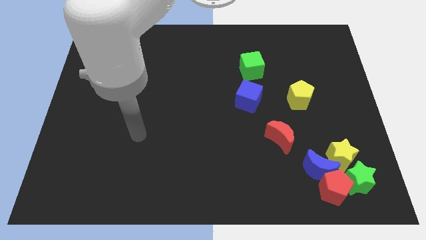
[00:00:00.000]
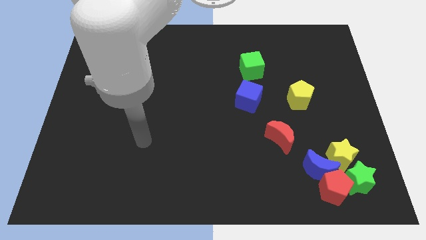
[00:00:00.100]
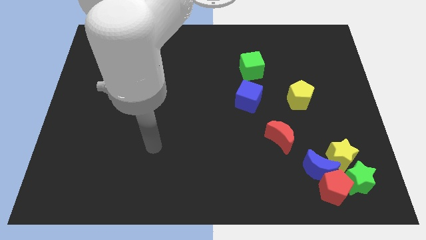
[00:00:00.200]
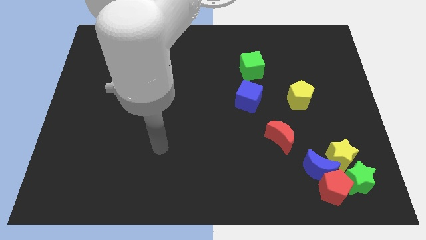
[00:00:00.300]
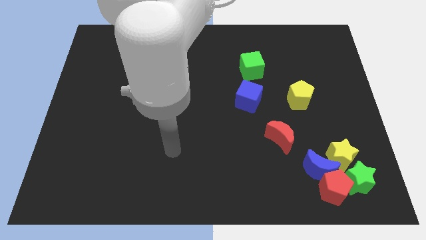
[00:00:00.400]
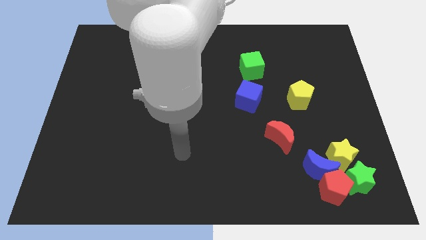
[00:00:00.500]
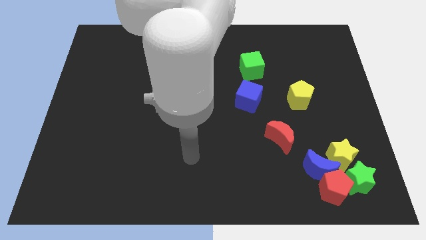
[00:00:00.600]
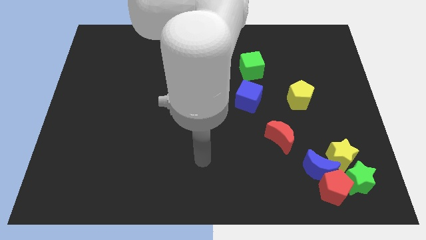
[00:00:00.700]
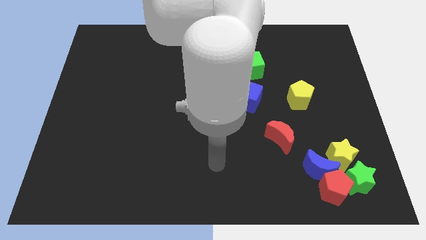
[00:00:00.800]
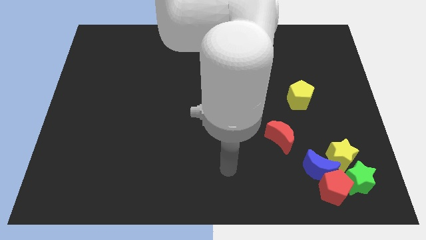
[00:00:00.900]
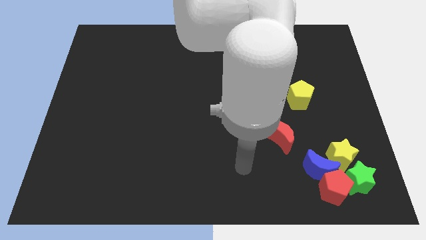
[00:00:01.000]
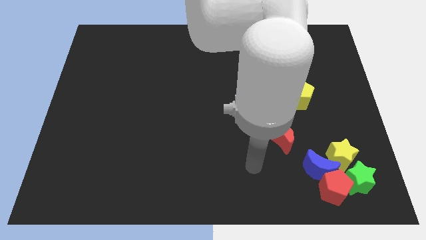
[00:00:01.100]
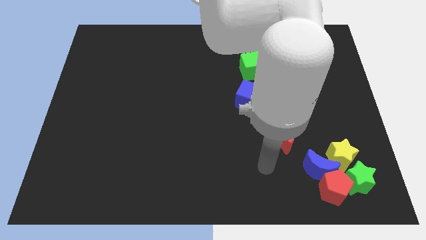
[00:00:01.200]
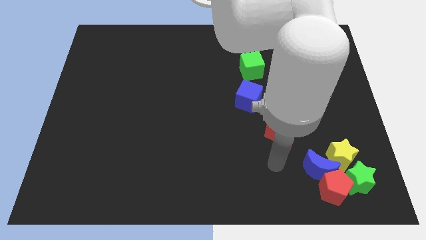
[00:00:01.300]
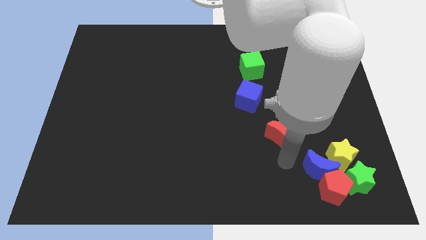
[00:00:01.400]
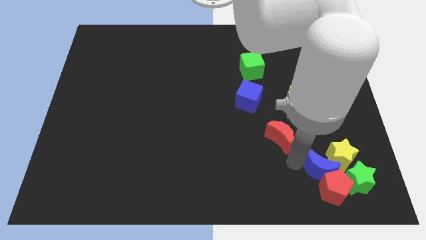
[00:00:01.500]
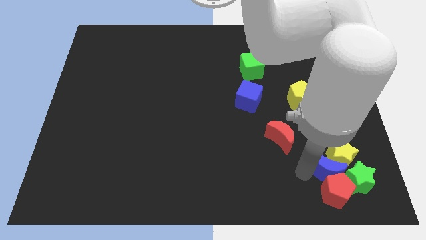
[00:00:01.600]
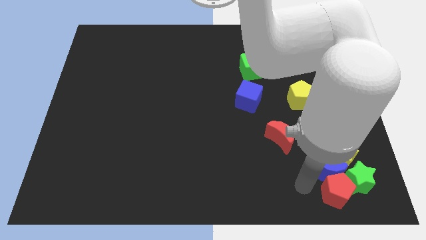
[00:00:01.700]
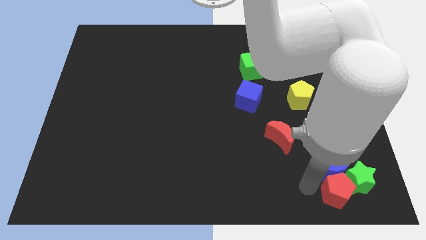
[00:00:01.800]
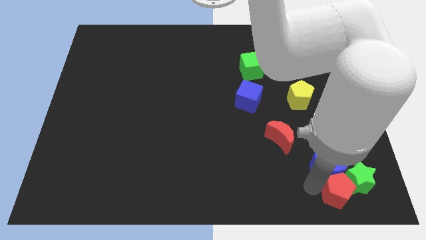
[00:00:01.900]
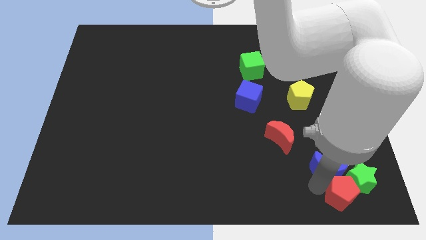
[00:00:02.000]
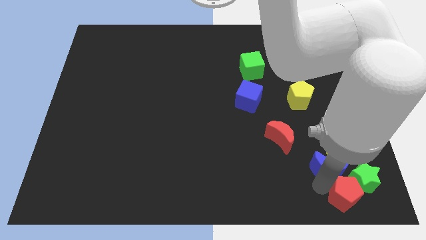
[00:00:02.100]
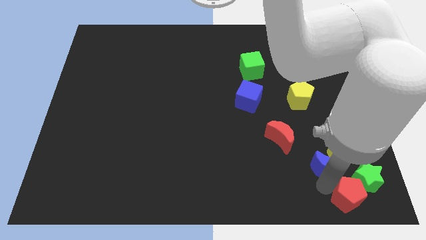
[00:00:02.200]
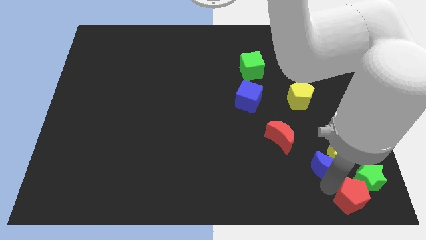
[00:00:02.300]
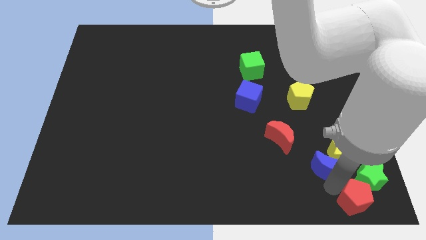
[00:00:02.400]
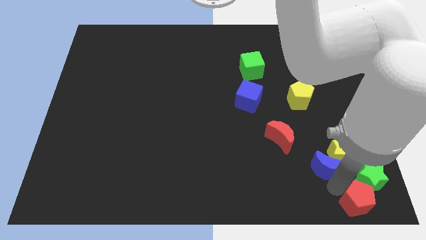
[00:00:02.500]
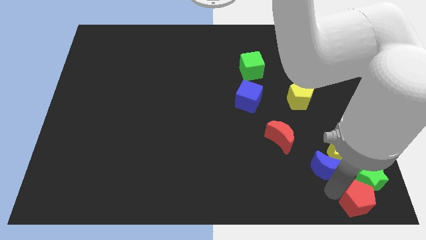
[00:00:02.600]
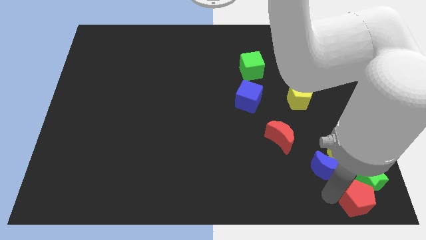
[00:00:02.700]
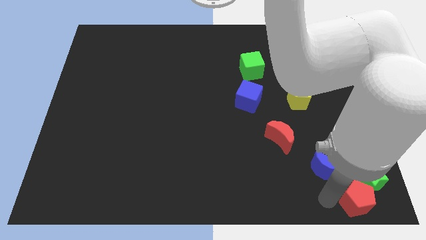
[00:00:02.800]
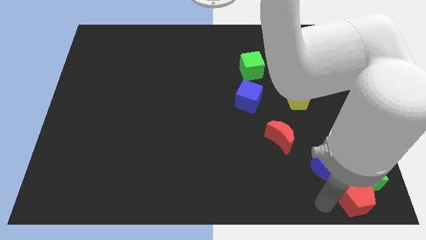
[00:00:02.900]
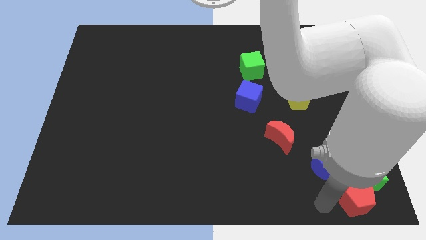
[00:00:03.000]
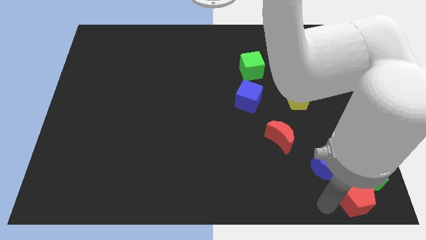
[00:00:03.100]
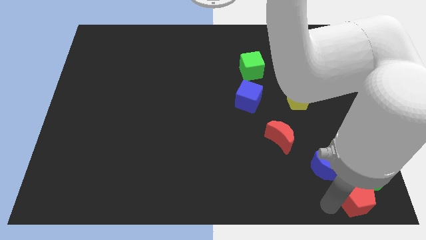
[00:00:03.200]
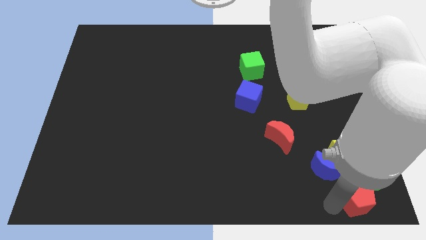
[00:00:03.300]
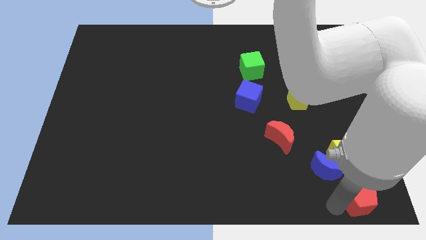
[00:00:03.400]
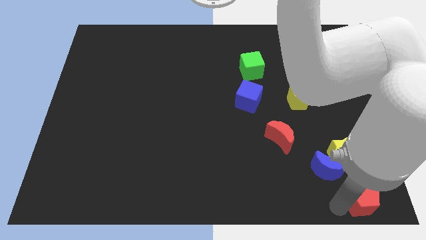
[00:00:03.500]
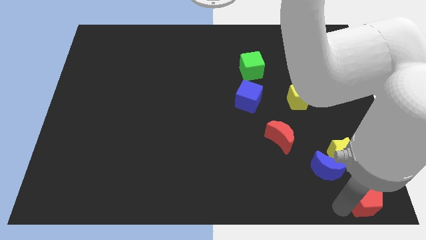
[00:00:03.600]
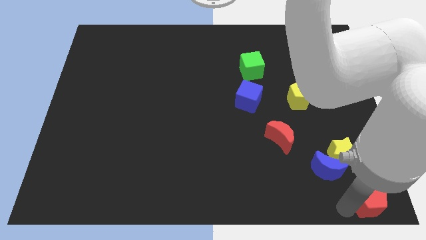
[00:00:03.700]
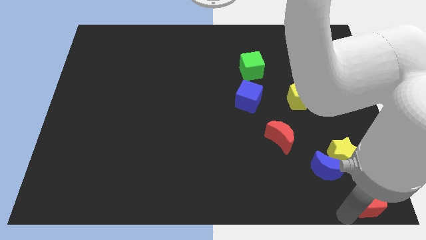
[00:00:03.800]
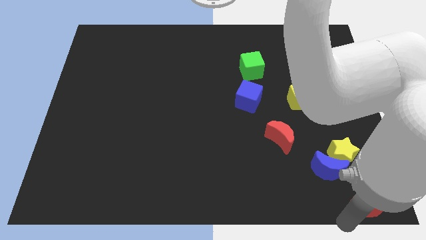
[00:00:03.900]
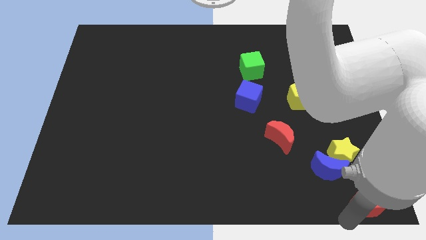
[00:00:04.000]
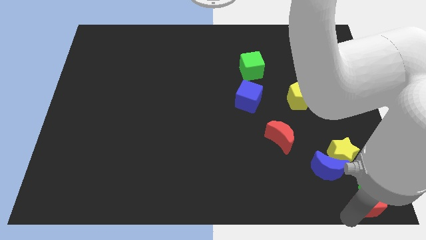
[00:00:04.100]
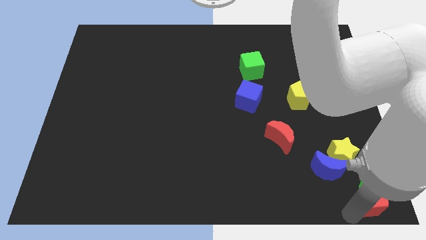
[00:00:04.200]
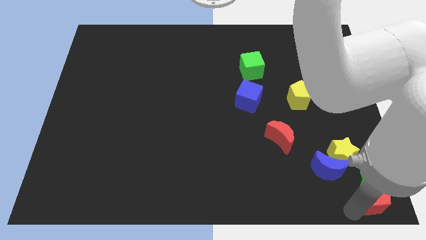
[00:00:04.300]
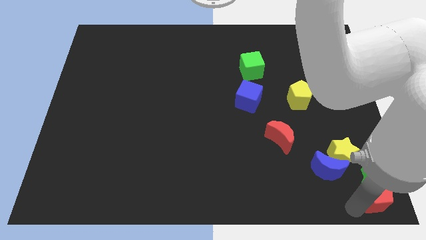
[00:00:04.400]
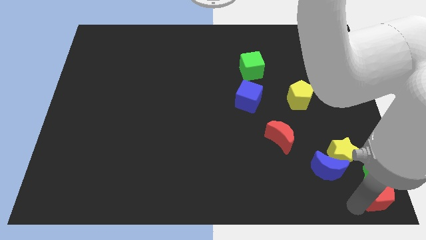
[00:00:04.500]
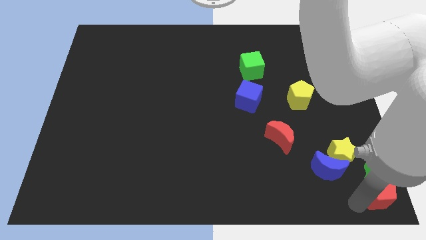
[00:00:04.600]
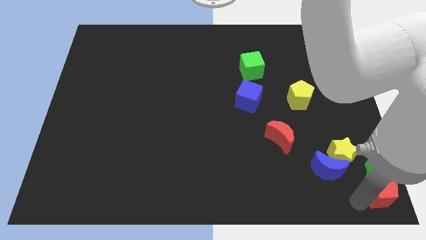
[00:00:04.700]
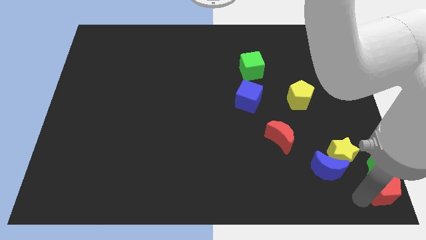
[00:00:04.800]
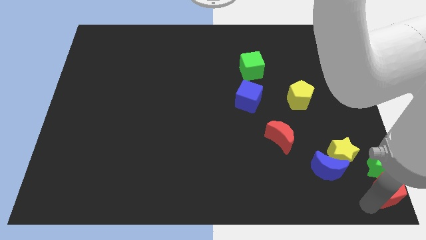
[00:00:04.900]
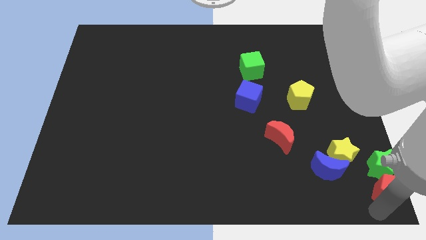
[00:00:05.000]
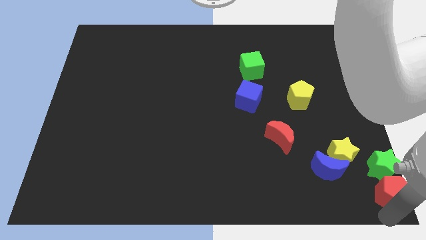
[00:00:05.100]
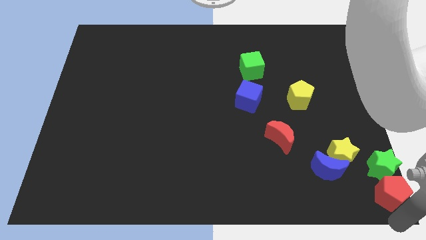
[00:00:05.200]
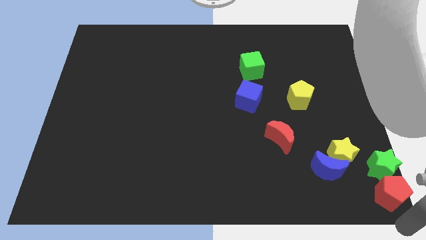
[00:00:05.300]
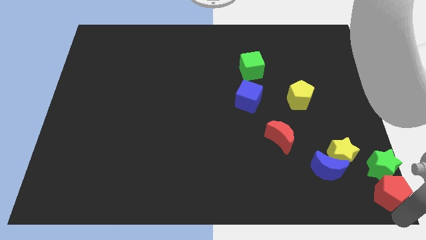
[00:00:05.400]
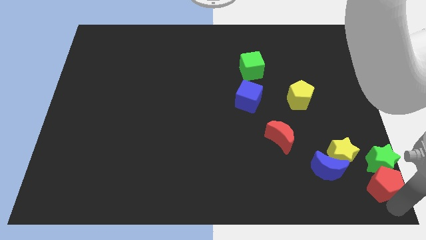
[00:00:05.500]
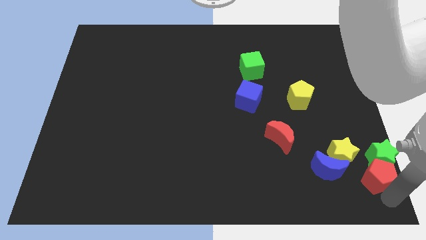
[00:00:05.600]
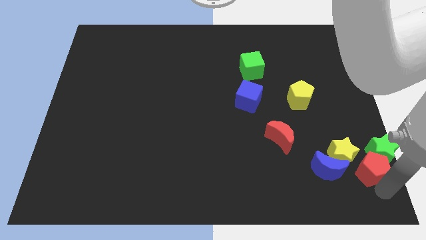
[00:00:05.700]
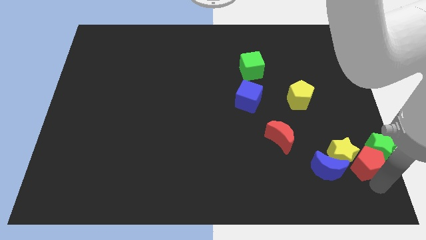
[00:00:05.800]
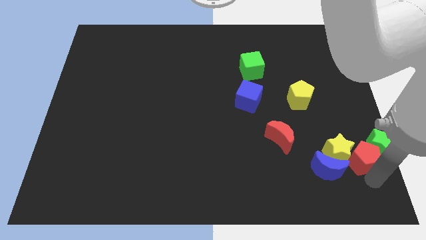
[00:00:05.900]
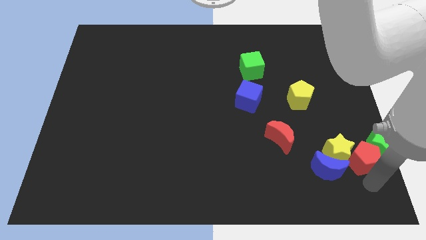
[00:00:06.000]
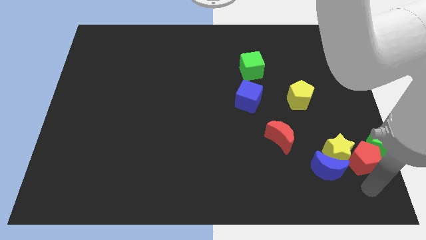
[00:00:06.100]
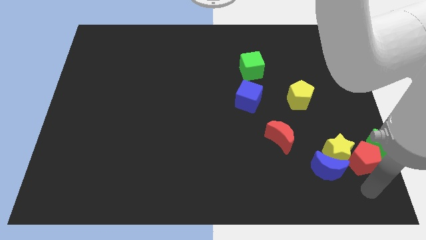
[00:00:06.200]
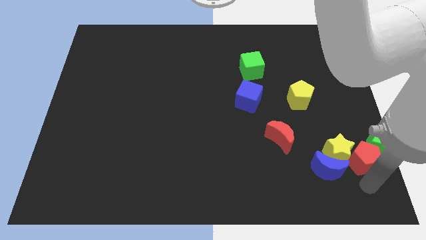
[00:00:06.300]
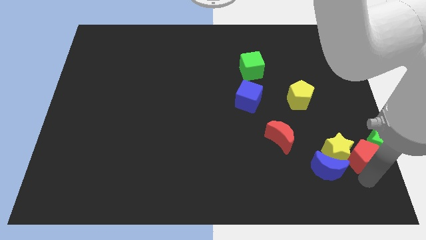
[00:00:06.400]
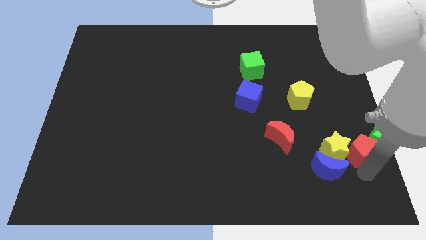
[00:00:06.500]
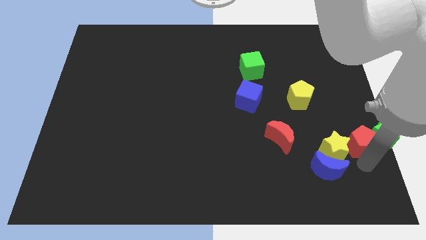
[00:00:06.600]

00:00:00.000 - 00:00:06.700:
push the red pentagon up slightly

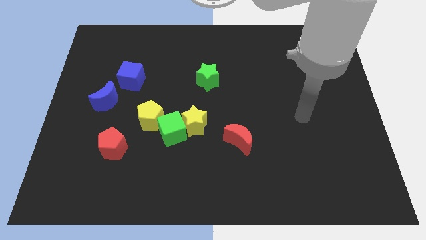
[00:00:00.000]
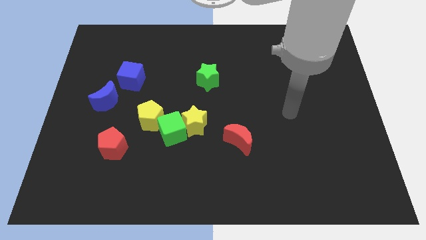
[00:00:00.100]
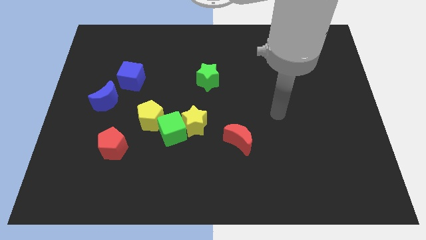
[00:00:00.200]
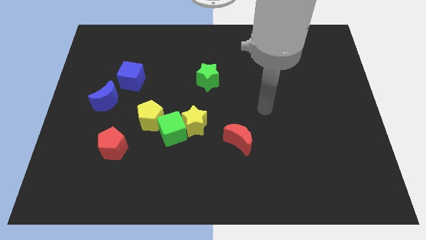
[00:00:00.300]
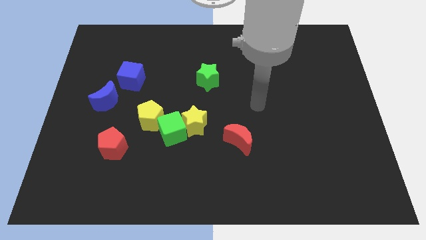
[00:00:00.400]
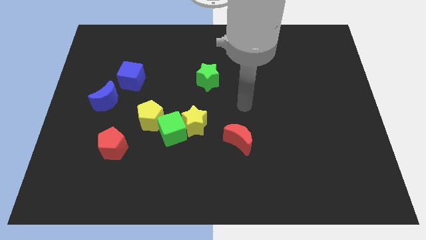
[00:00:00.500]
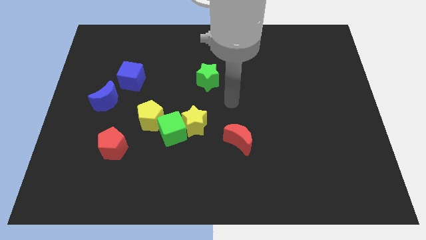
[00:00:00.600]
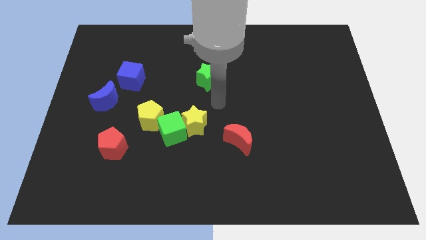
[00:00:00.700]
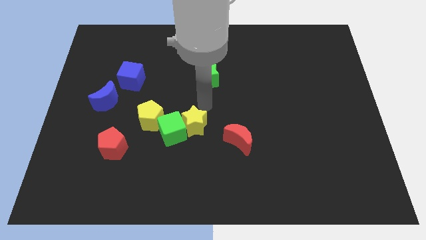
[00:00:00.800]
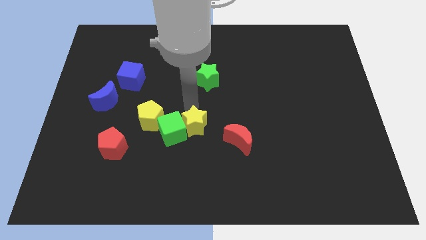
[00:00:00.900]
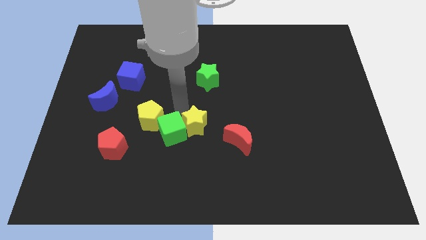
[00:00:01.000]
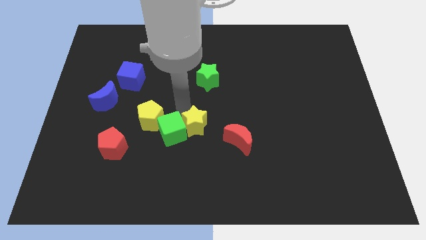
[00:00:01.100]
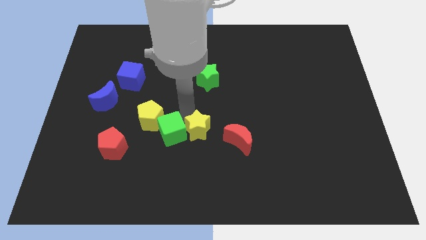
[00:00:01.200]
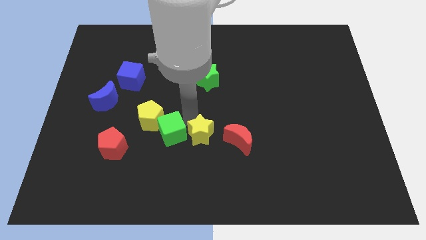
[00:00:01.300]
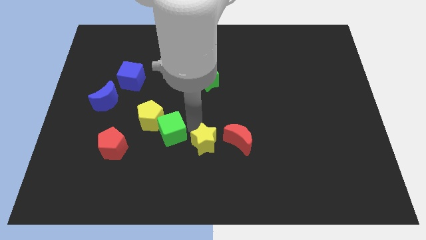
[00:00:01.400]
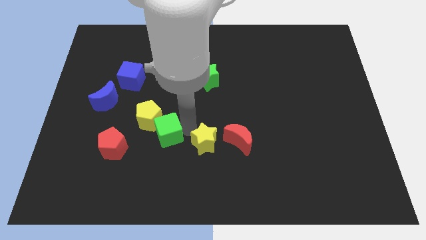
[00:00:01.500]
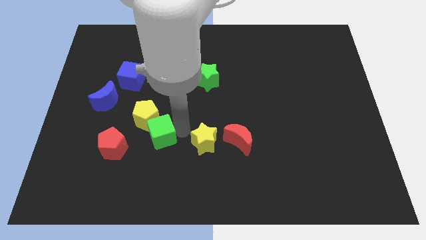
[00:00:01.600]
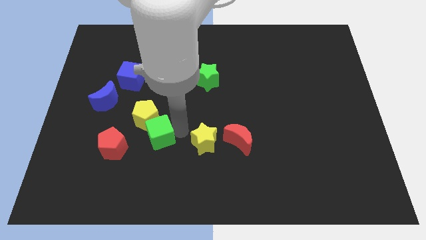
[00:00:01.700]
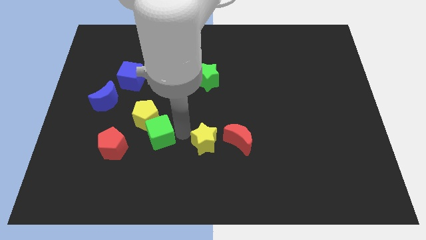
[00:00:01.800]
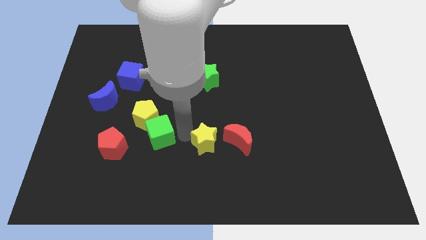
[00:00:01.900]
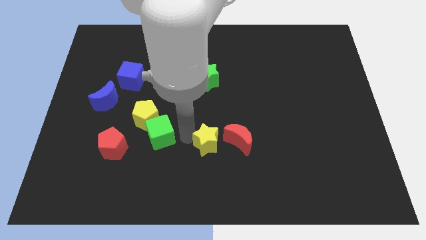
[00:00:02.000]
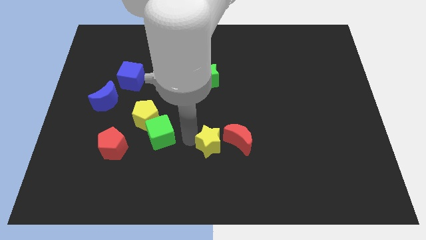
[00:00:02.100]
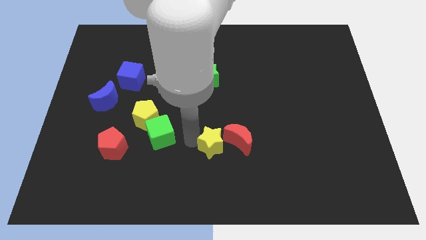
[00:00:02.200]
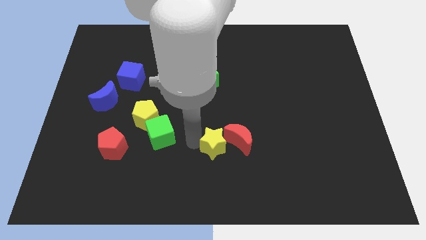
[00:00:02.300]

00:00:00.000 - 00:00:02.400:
move the yellow star diagonally downwards and right slightly
